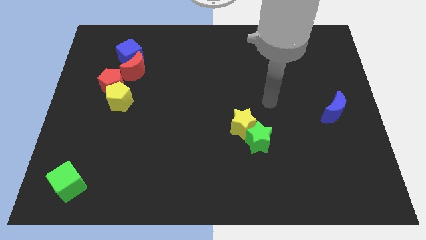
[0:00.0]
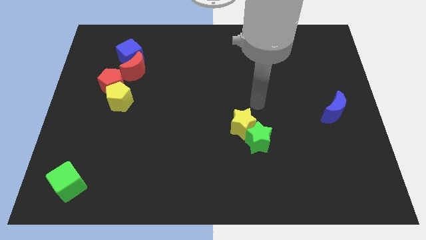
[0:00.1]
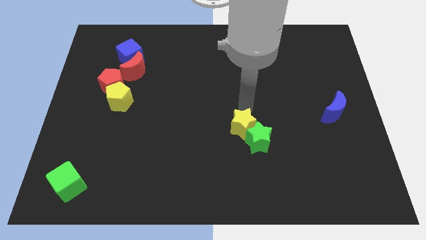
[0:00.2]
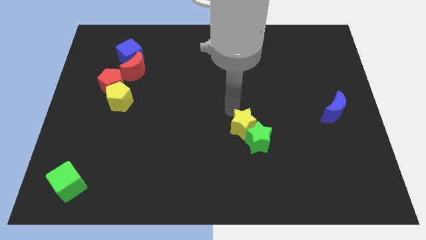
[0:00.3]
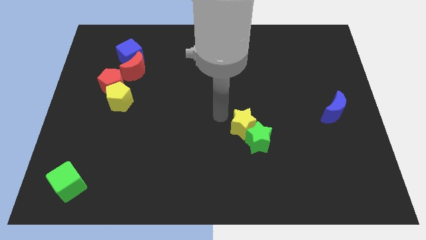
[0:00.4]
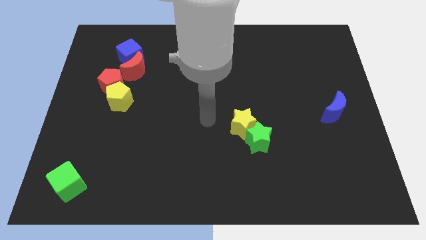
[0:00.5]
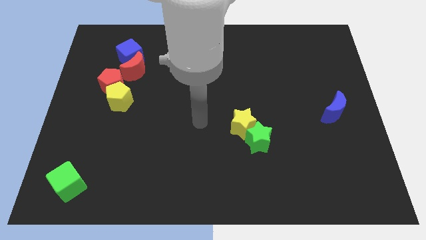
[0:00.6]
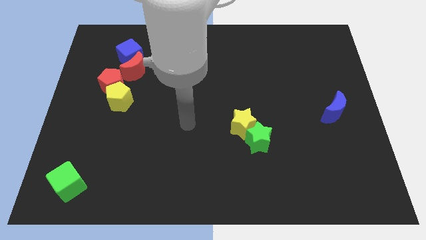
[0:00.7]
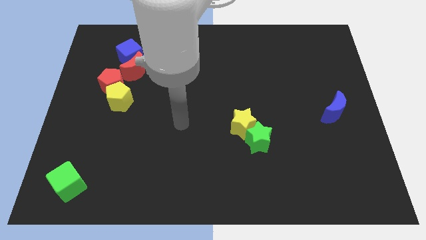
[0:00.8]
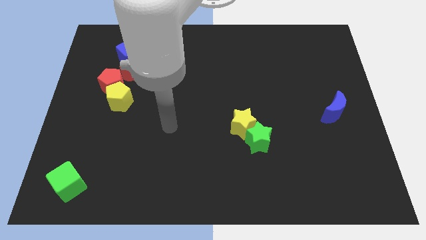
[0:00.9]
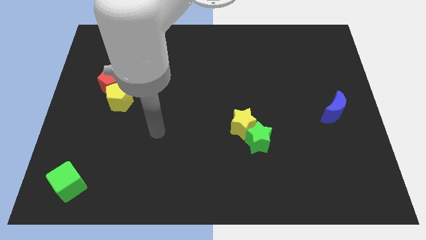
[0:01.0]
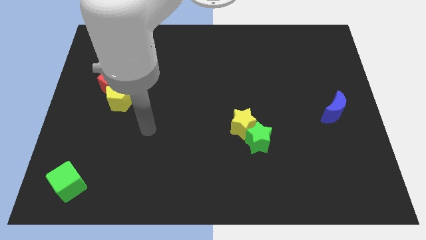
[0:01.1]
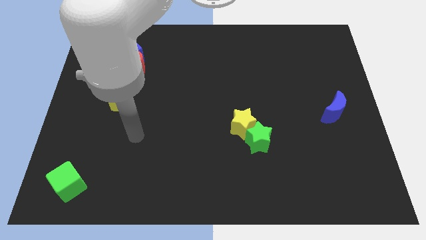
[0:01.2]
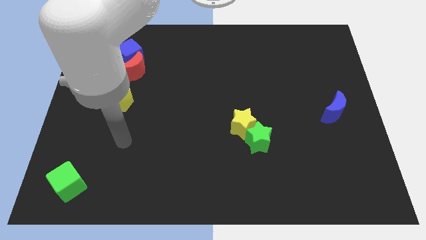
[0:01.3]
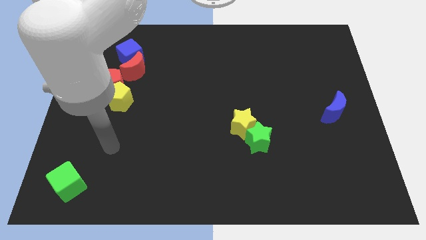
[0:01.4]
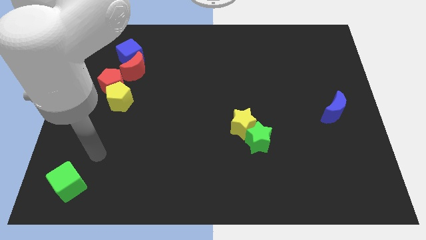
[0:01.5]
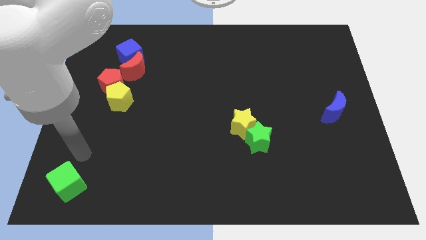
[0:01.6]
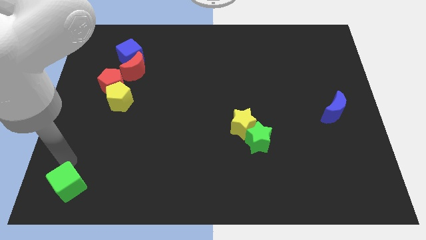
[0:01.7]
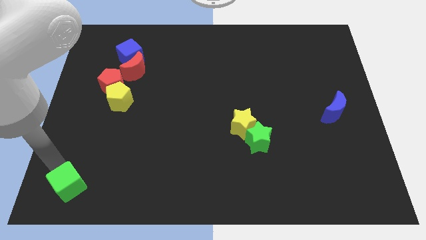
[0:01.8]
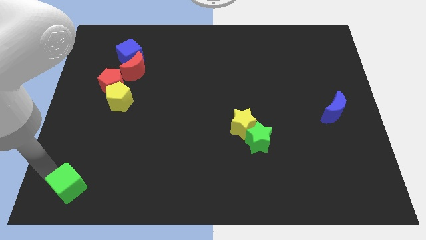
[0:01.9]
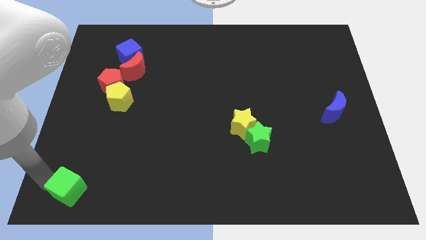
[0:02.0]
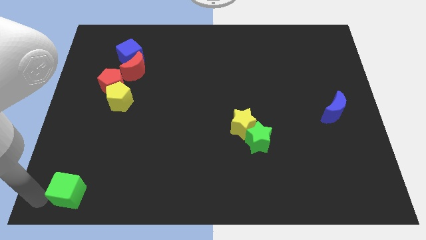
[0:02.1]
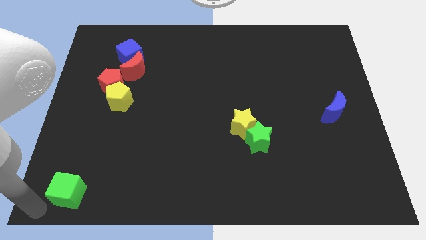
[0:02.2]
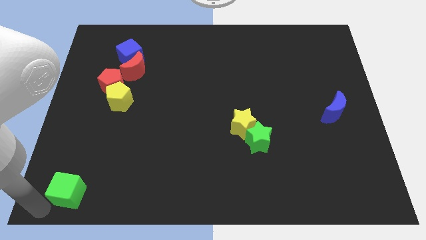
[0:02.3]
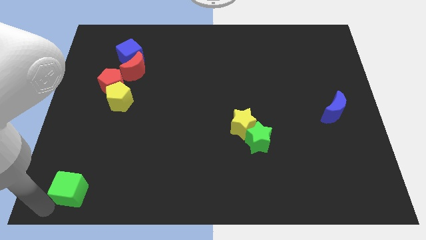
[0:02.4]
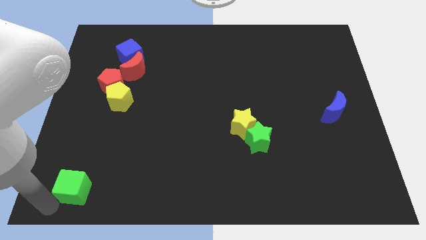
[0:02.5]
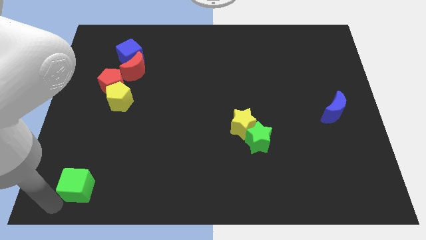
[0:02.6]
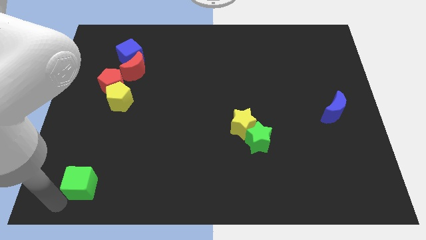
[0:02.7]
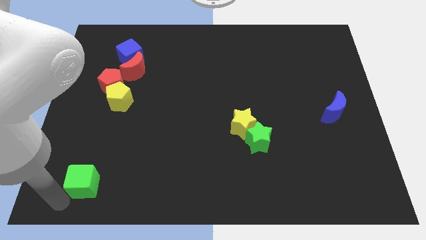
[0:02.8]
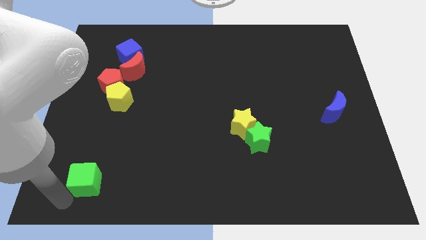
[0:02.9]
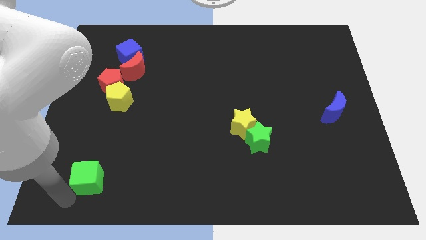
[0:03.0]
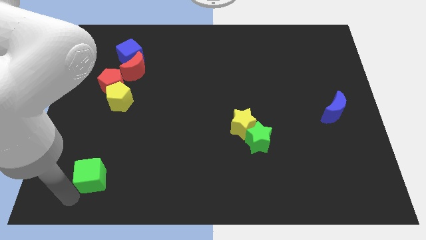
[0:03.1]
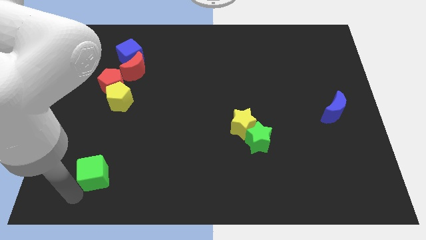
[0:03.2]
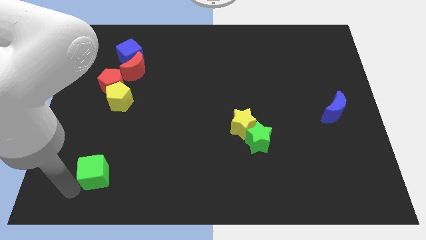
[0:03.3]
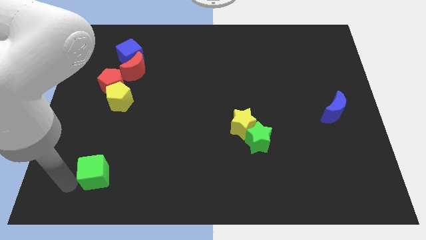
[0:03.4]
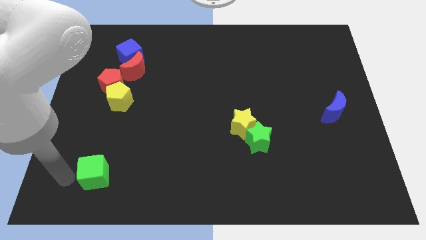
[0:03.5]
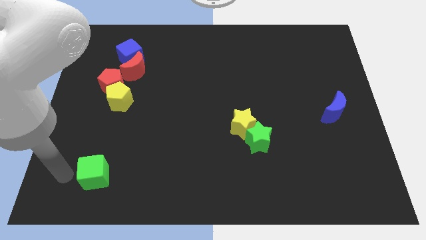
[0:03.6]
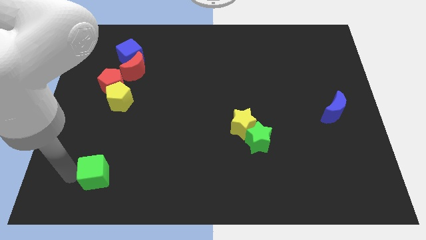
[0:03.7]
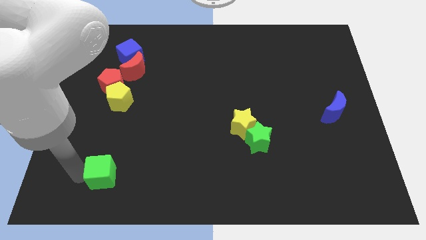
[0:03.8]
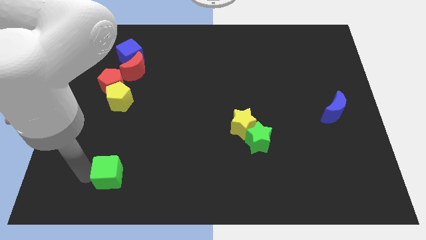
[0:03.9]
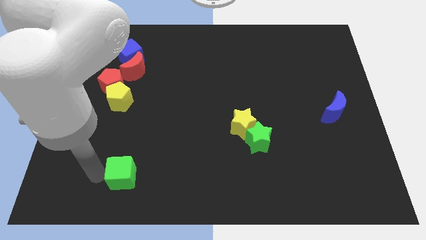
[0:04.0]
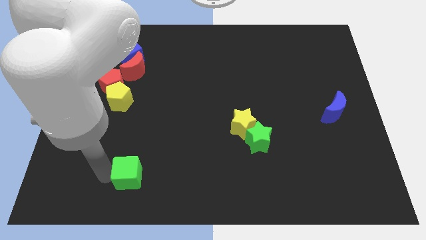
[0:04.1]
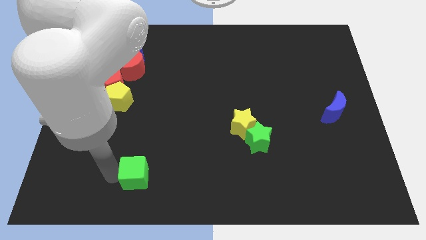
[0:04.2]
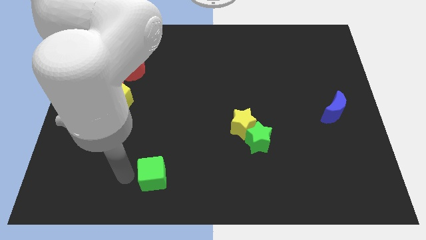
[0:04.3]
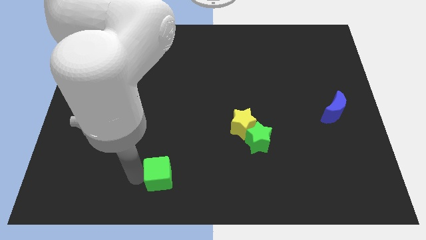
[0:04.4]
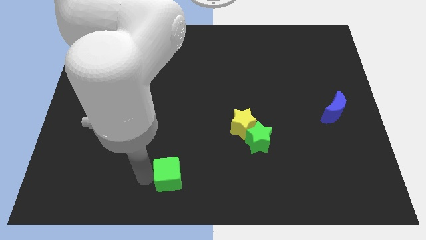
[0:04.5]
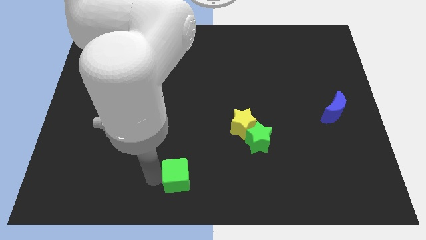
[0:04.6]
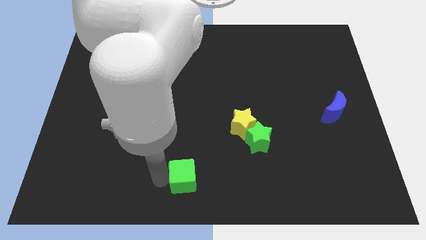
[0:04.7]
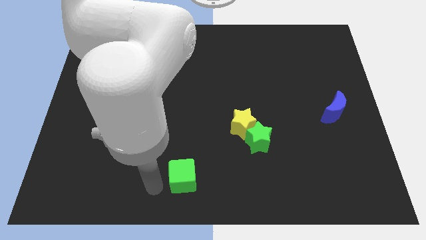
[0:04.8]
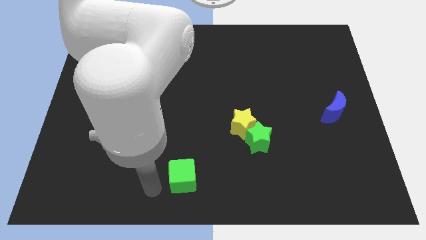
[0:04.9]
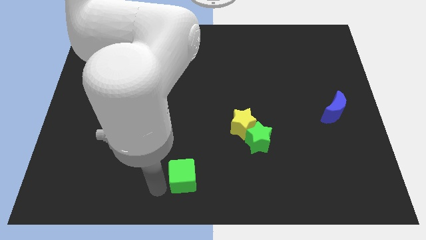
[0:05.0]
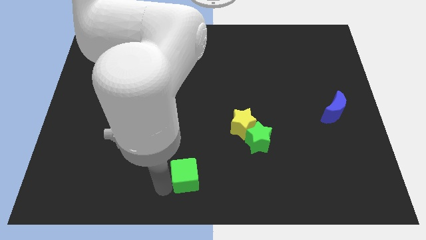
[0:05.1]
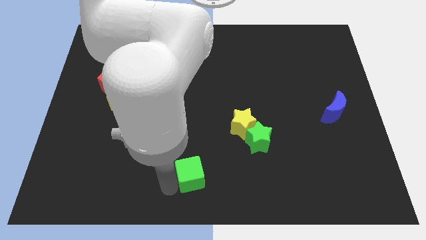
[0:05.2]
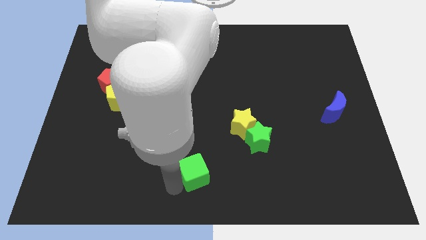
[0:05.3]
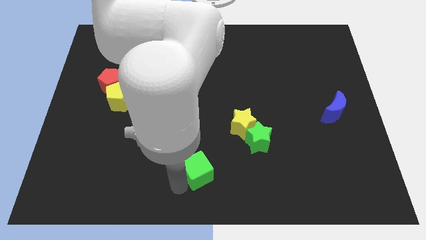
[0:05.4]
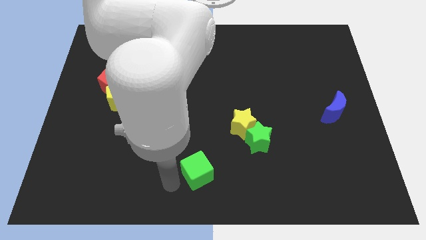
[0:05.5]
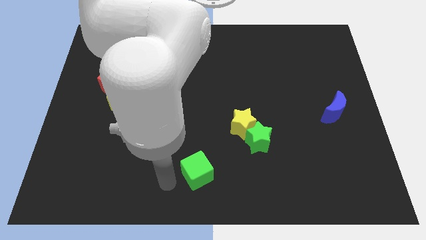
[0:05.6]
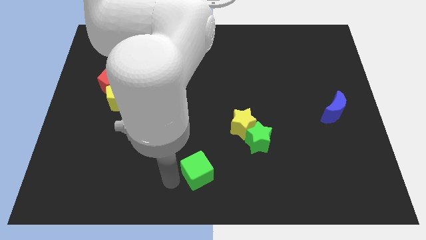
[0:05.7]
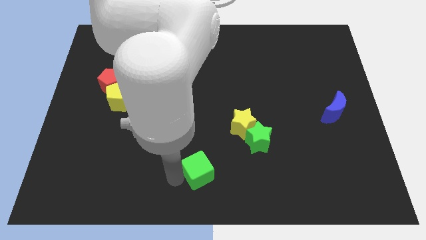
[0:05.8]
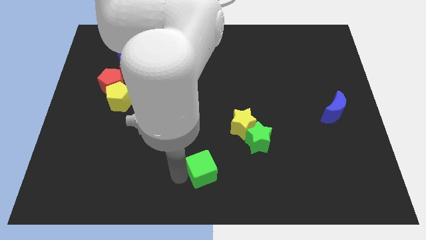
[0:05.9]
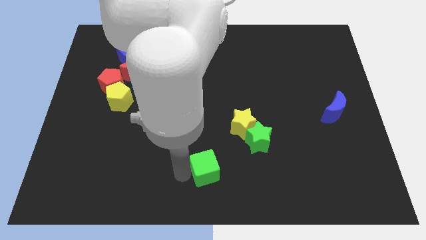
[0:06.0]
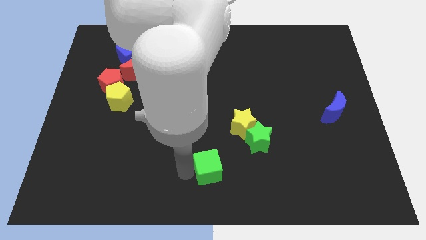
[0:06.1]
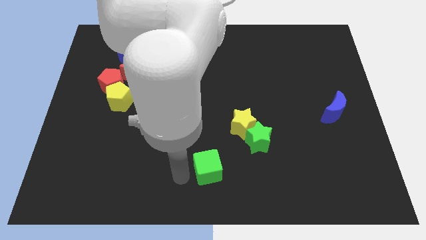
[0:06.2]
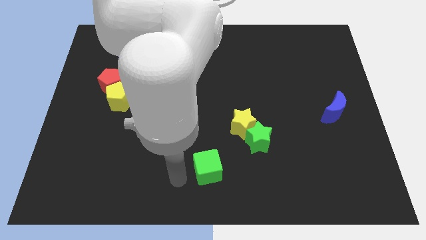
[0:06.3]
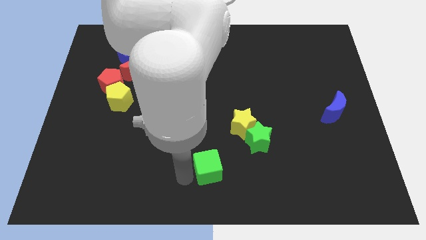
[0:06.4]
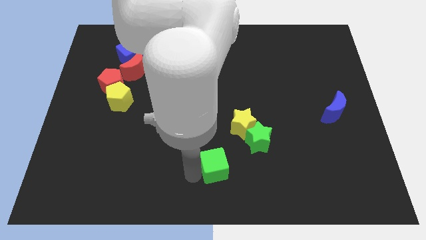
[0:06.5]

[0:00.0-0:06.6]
move the green cube to the bottom left of the green star

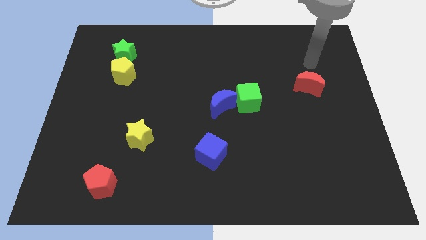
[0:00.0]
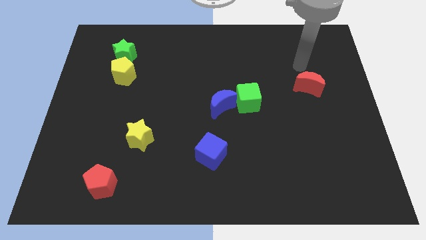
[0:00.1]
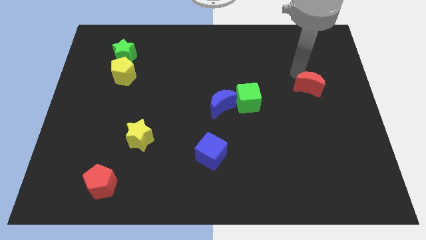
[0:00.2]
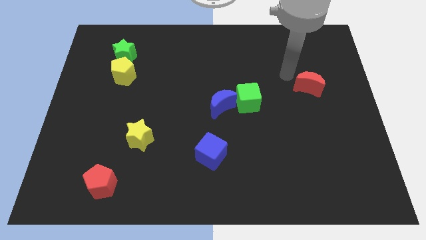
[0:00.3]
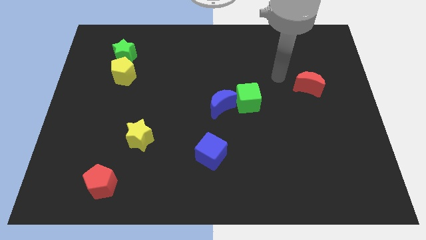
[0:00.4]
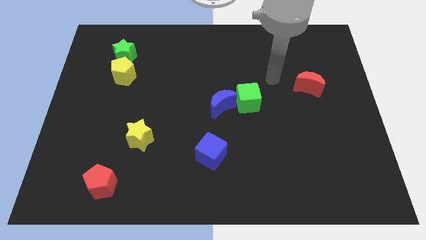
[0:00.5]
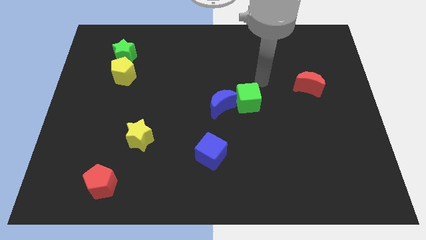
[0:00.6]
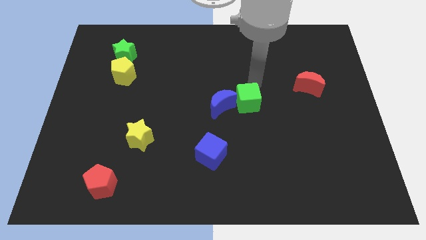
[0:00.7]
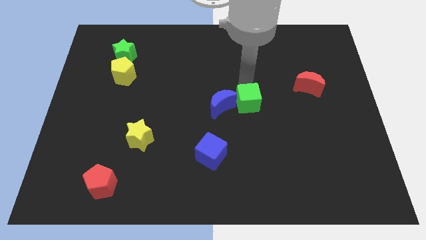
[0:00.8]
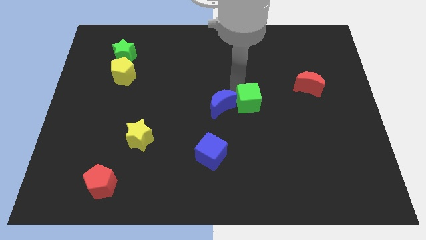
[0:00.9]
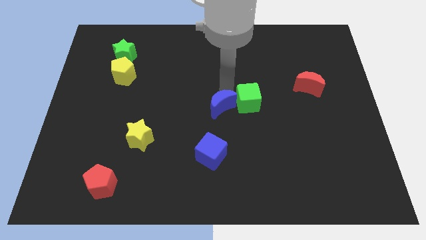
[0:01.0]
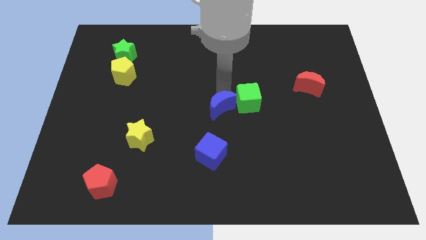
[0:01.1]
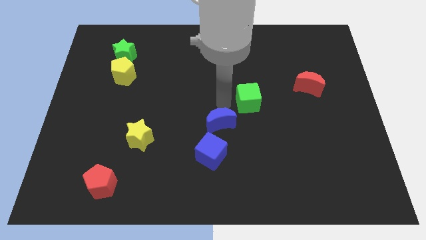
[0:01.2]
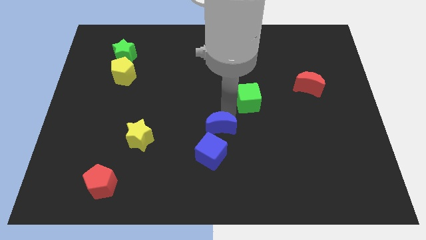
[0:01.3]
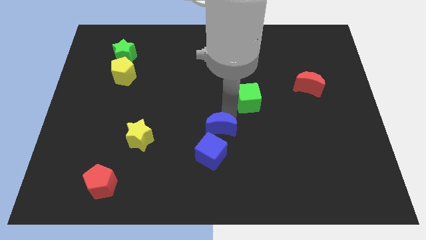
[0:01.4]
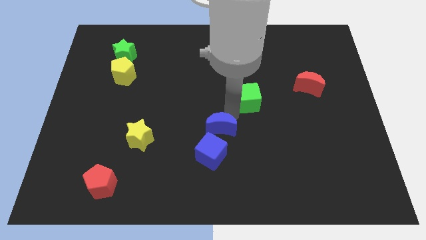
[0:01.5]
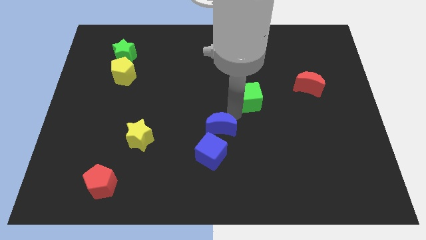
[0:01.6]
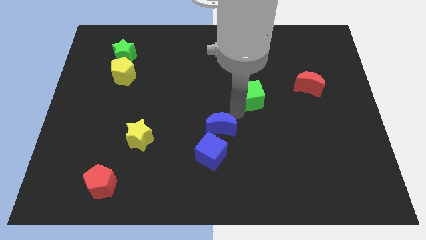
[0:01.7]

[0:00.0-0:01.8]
slide the green cube to the left side of the red moon
